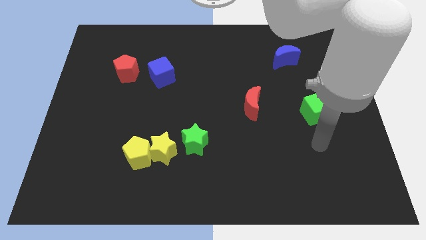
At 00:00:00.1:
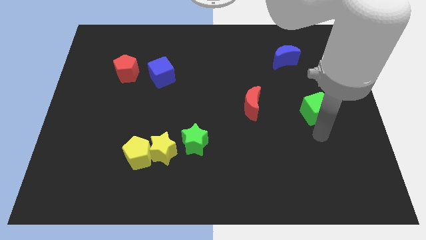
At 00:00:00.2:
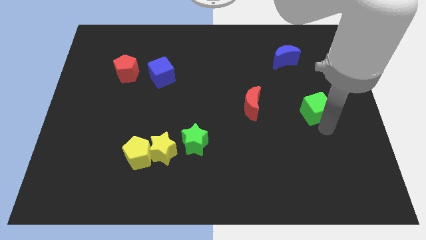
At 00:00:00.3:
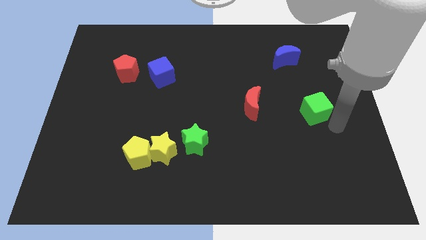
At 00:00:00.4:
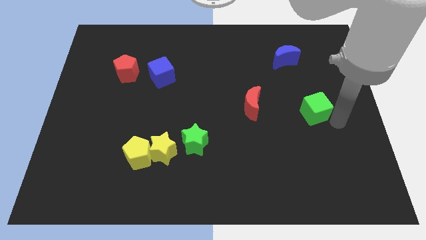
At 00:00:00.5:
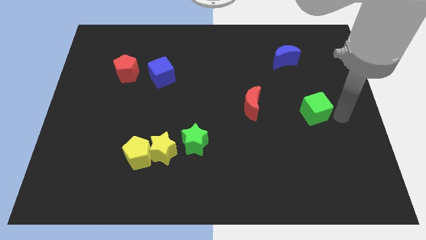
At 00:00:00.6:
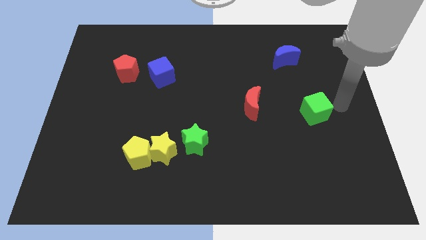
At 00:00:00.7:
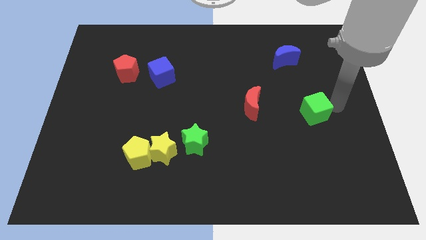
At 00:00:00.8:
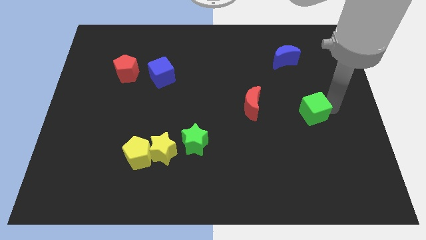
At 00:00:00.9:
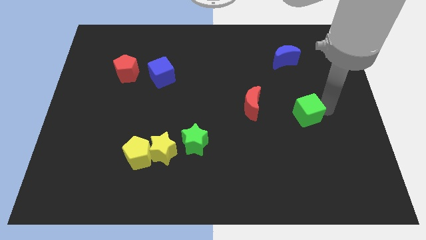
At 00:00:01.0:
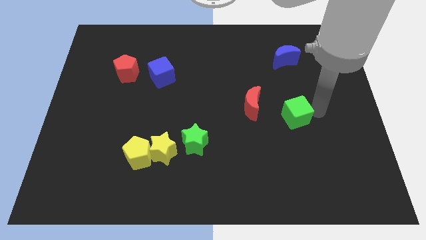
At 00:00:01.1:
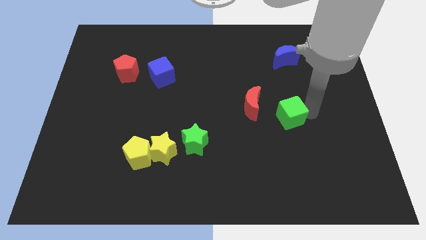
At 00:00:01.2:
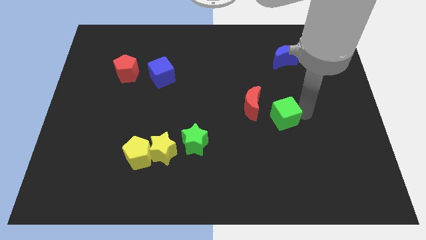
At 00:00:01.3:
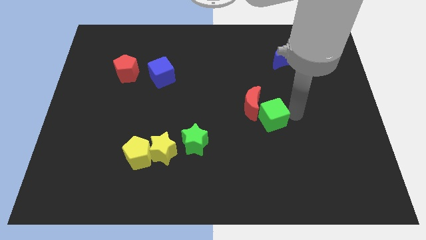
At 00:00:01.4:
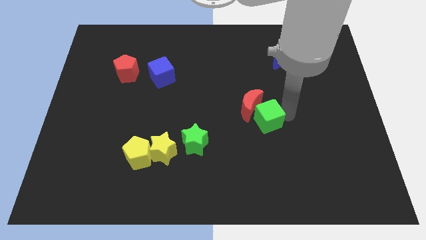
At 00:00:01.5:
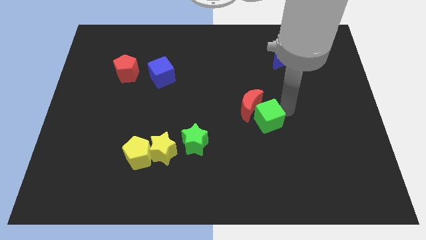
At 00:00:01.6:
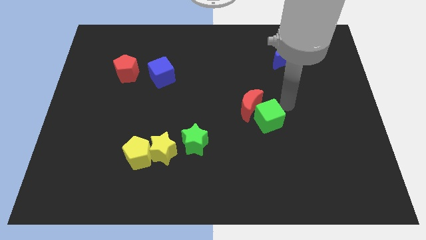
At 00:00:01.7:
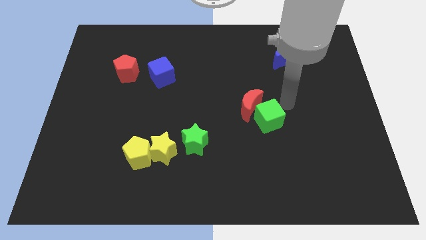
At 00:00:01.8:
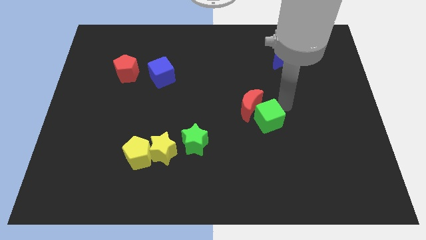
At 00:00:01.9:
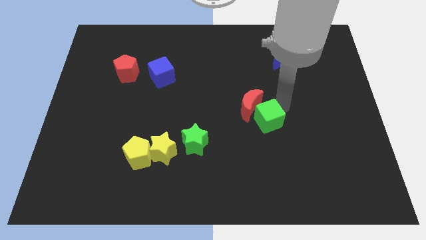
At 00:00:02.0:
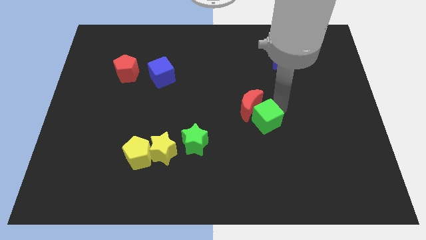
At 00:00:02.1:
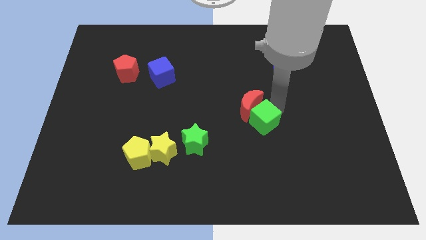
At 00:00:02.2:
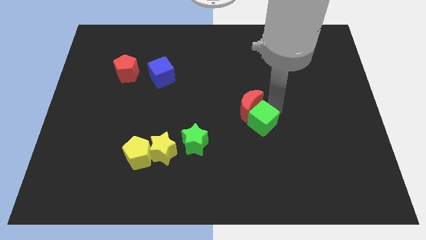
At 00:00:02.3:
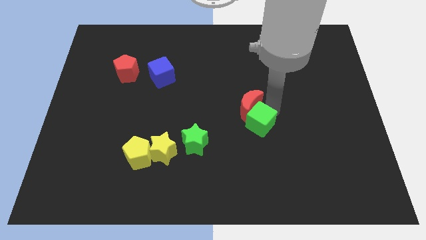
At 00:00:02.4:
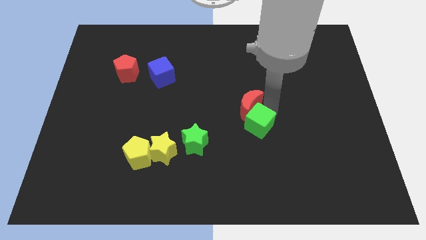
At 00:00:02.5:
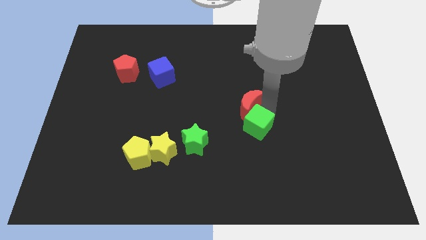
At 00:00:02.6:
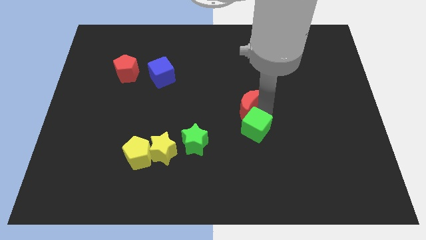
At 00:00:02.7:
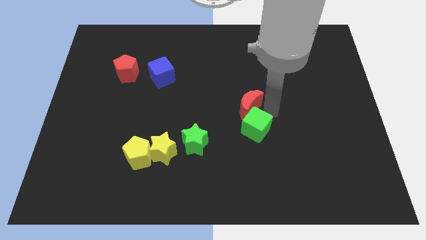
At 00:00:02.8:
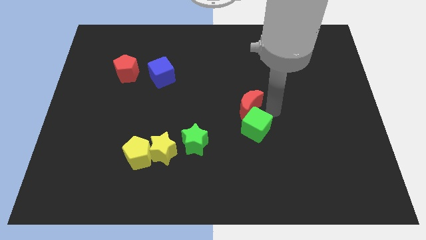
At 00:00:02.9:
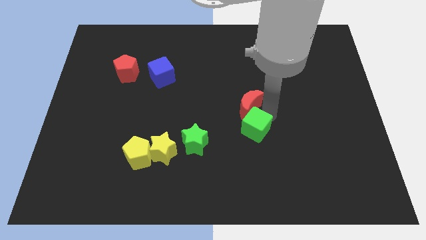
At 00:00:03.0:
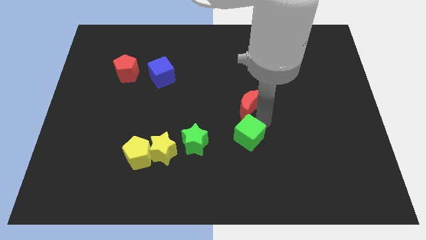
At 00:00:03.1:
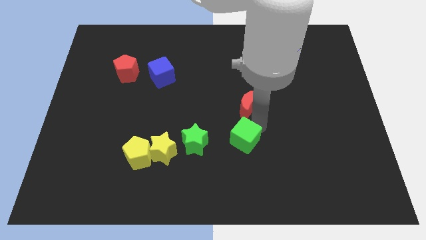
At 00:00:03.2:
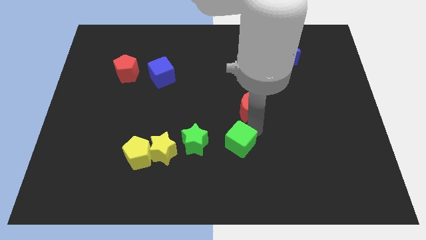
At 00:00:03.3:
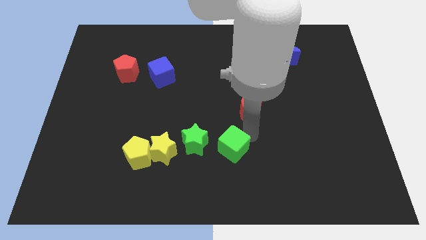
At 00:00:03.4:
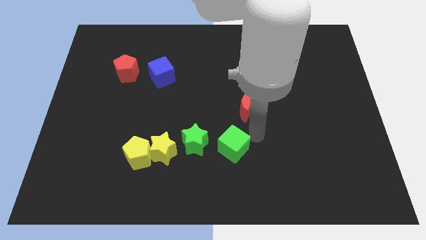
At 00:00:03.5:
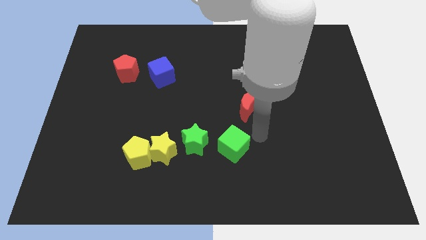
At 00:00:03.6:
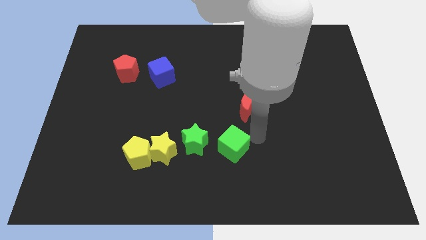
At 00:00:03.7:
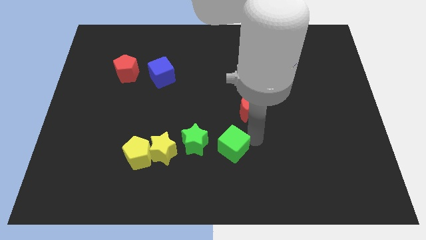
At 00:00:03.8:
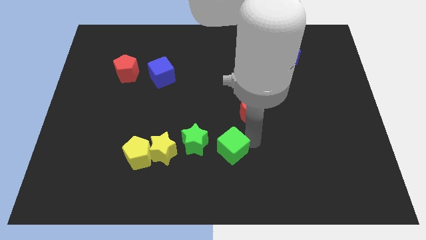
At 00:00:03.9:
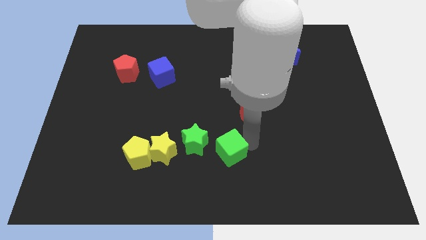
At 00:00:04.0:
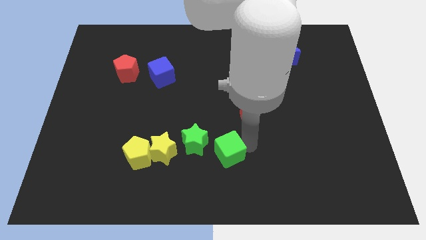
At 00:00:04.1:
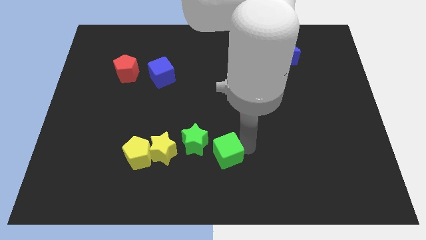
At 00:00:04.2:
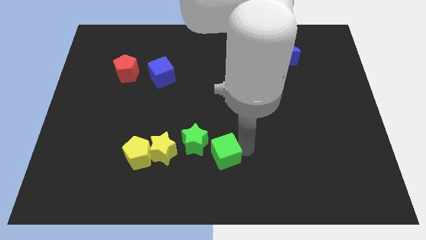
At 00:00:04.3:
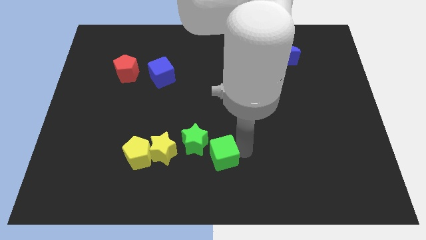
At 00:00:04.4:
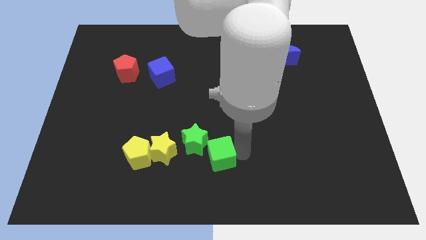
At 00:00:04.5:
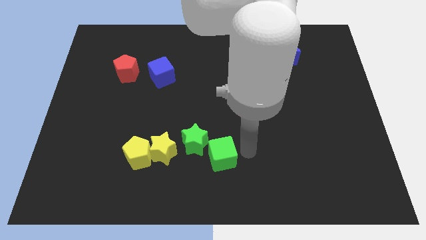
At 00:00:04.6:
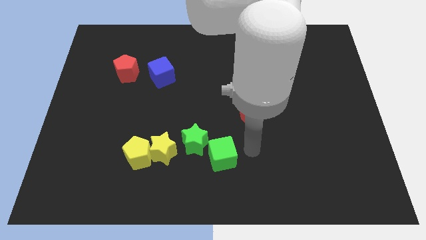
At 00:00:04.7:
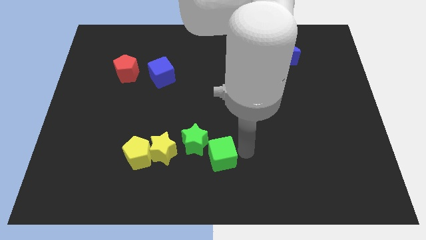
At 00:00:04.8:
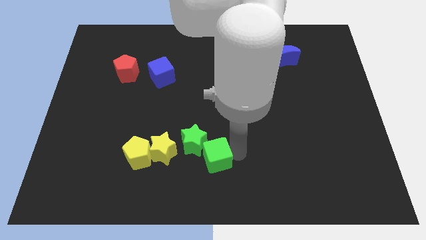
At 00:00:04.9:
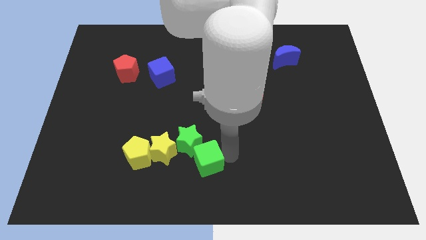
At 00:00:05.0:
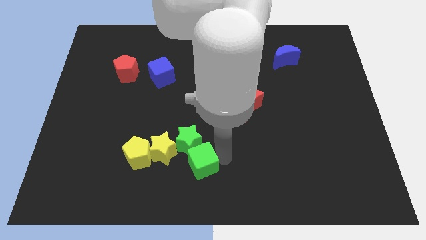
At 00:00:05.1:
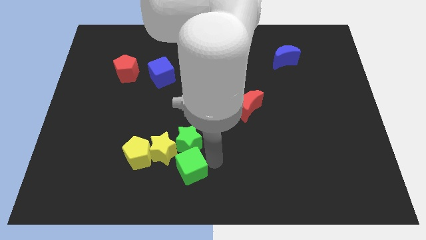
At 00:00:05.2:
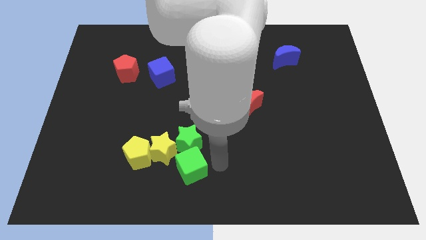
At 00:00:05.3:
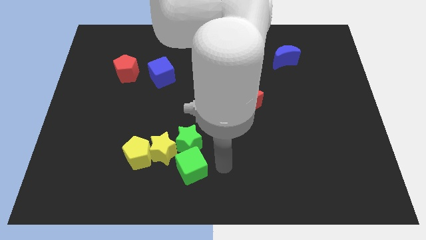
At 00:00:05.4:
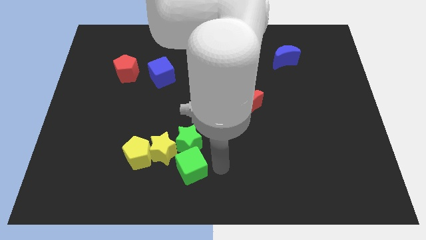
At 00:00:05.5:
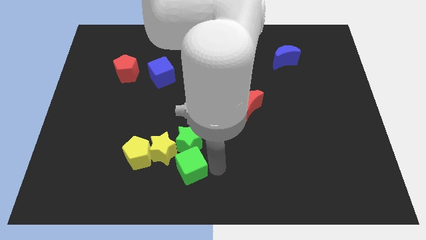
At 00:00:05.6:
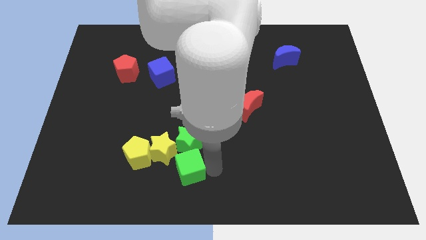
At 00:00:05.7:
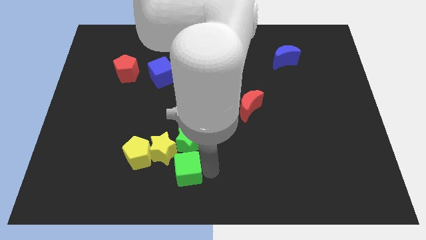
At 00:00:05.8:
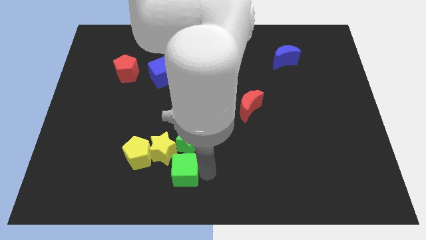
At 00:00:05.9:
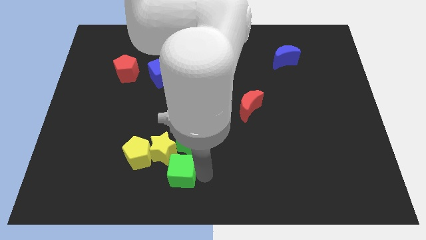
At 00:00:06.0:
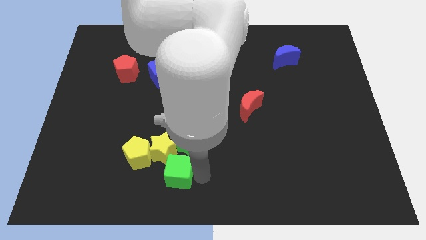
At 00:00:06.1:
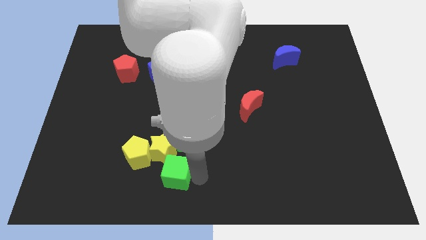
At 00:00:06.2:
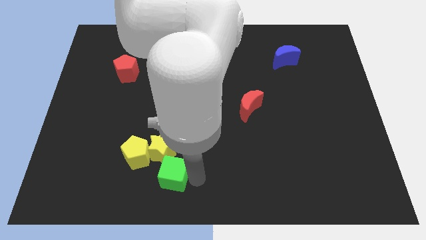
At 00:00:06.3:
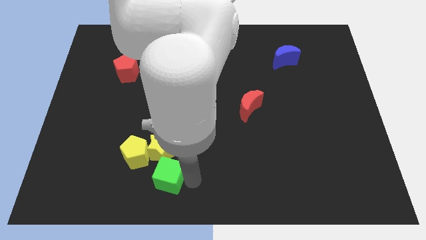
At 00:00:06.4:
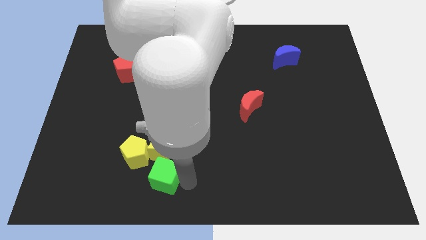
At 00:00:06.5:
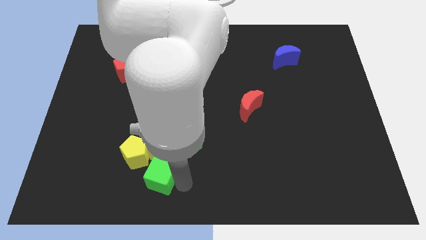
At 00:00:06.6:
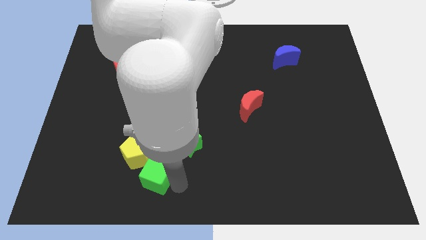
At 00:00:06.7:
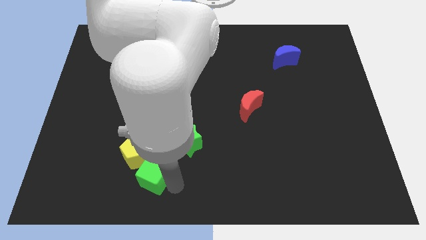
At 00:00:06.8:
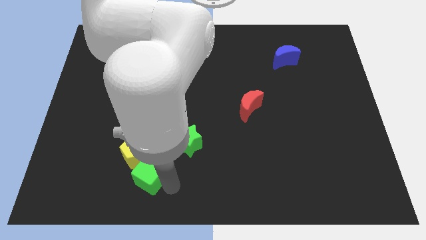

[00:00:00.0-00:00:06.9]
move the green cube close to the yellow pentagon

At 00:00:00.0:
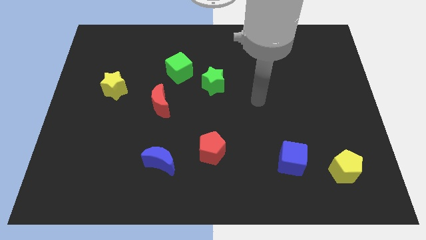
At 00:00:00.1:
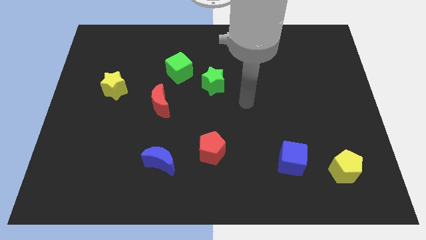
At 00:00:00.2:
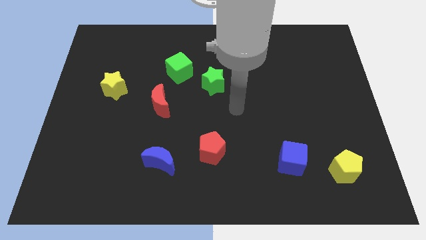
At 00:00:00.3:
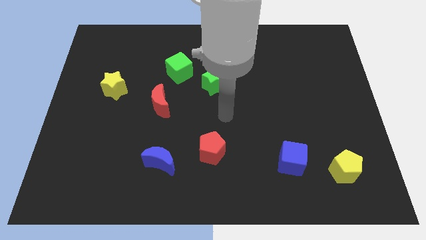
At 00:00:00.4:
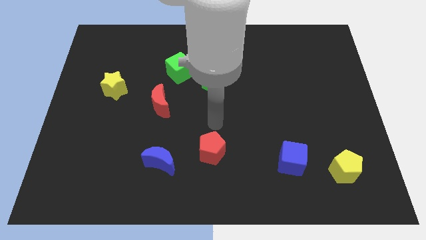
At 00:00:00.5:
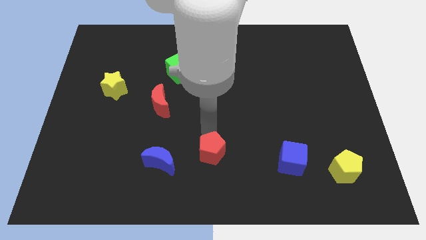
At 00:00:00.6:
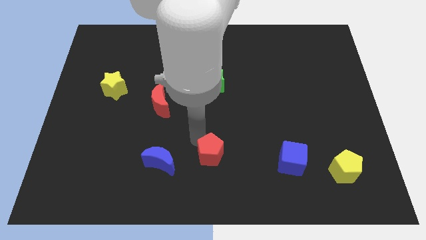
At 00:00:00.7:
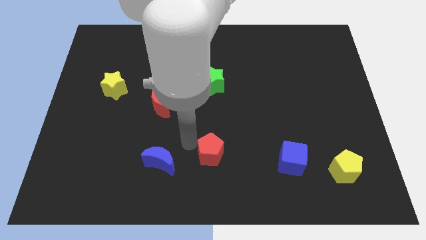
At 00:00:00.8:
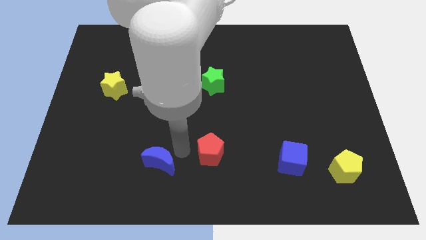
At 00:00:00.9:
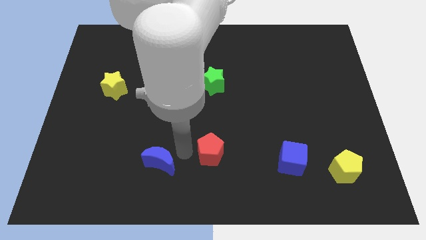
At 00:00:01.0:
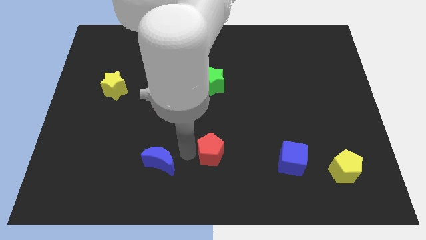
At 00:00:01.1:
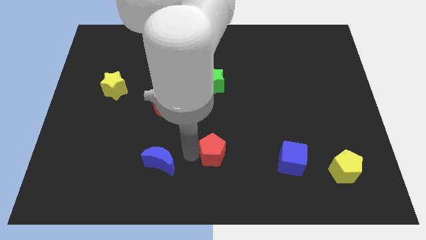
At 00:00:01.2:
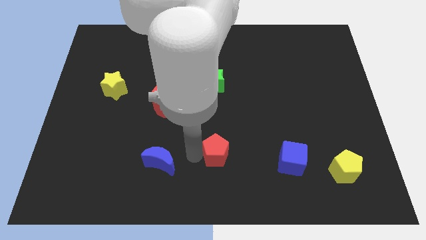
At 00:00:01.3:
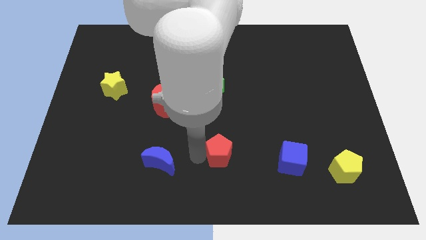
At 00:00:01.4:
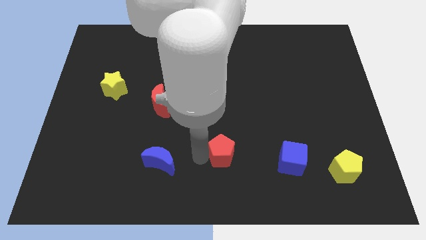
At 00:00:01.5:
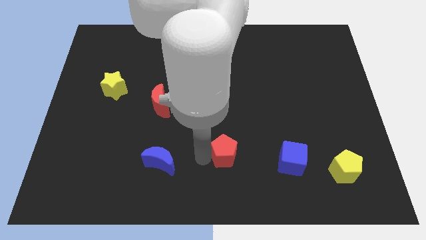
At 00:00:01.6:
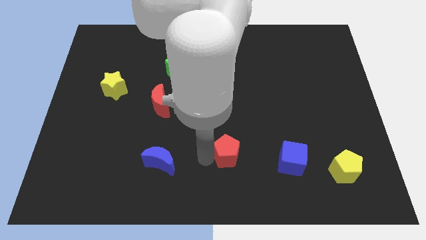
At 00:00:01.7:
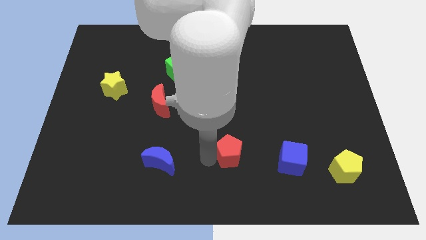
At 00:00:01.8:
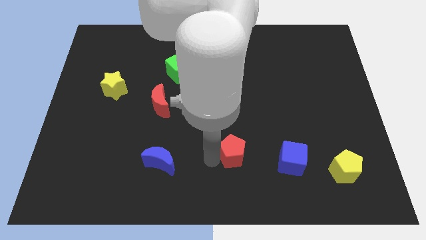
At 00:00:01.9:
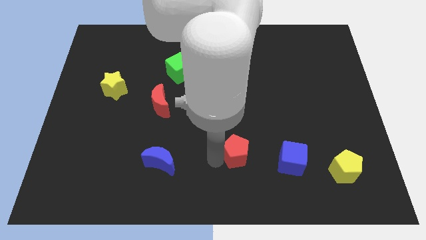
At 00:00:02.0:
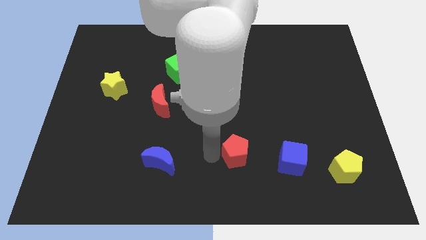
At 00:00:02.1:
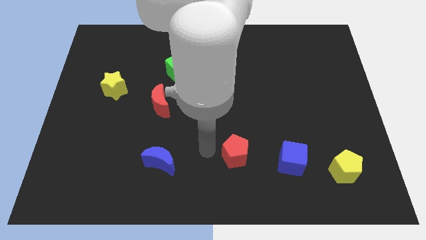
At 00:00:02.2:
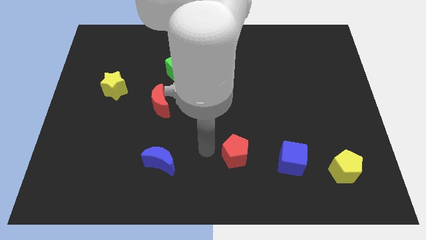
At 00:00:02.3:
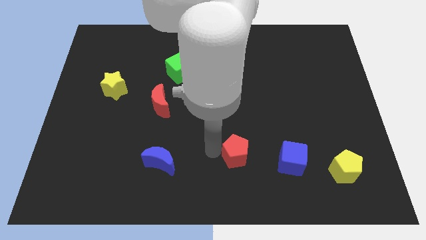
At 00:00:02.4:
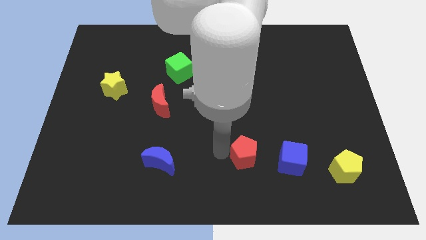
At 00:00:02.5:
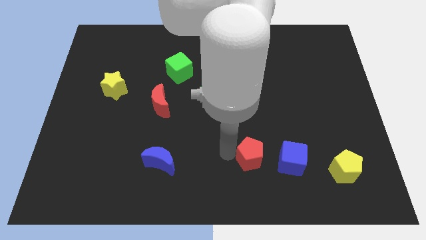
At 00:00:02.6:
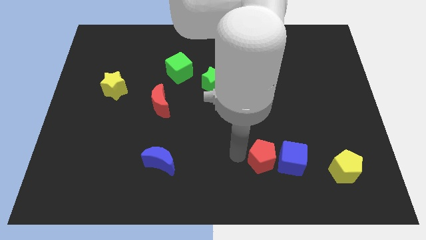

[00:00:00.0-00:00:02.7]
move the red pentagon close to the blue cube
